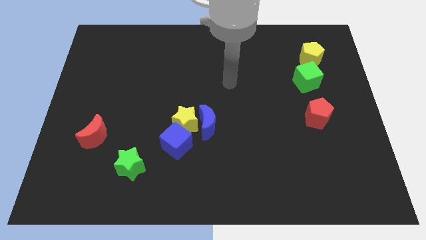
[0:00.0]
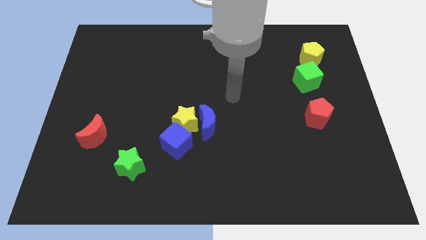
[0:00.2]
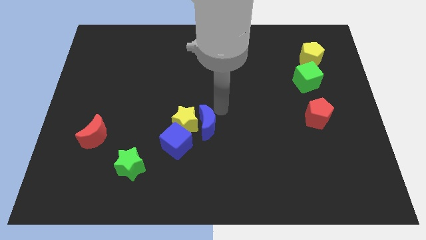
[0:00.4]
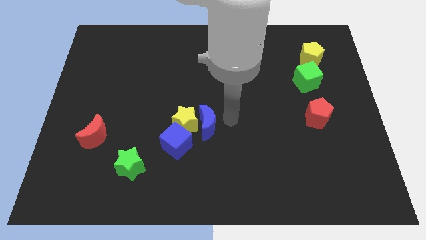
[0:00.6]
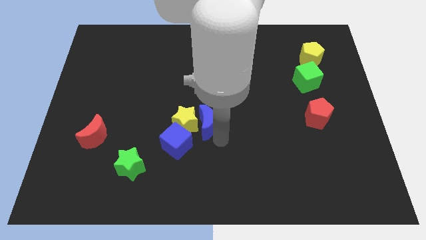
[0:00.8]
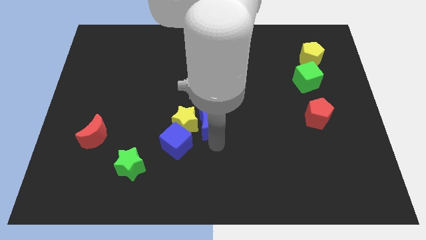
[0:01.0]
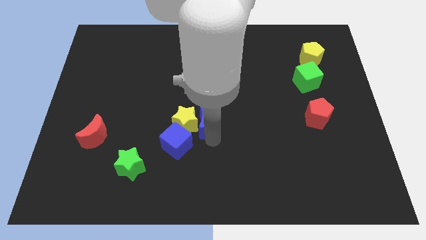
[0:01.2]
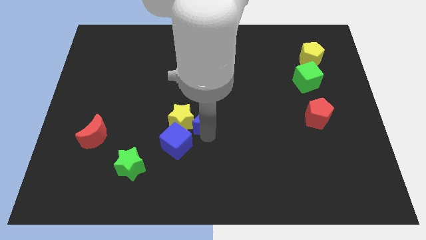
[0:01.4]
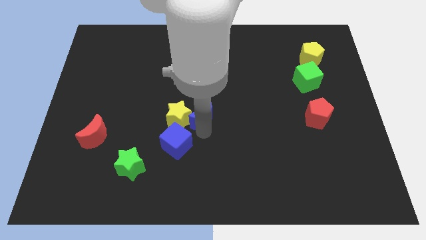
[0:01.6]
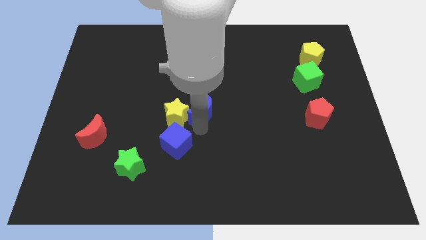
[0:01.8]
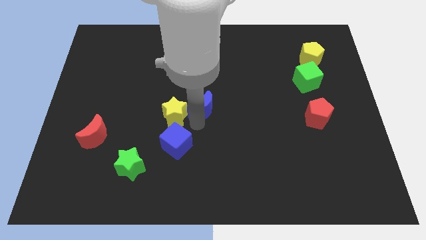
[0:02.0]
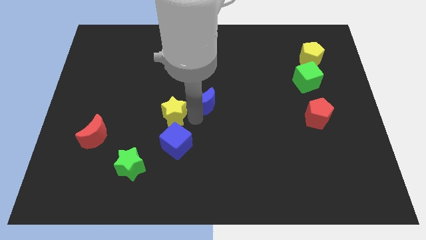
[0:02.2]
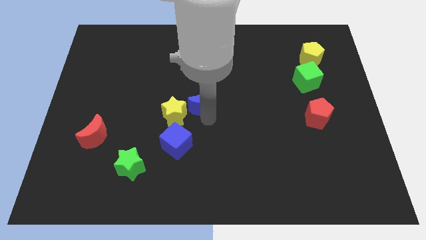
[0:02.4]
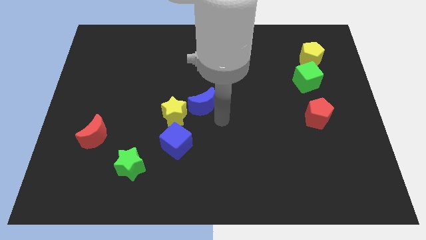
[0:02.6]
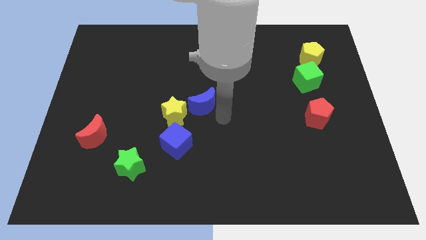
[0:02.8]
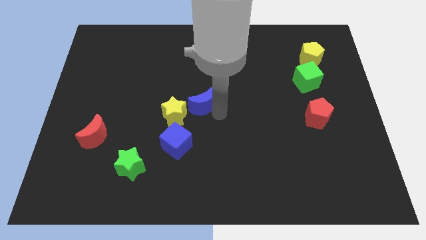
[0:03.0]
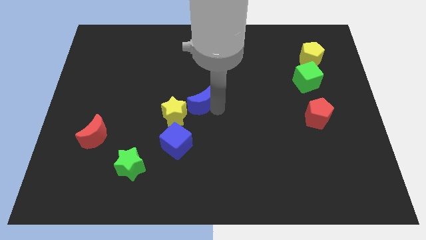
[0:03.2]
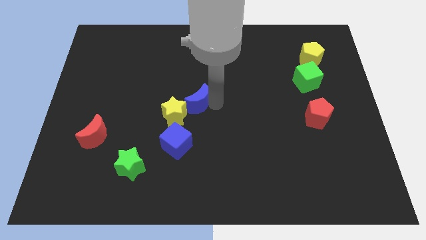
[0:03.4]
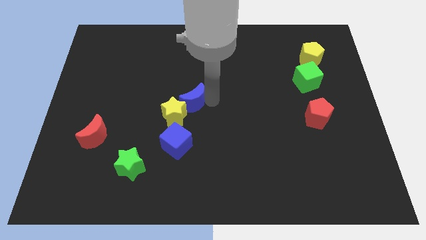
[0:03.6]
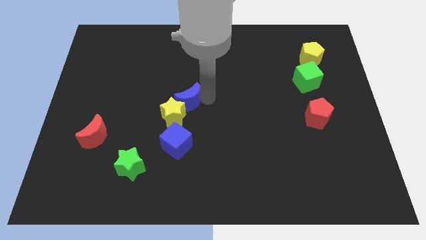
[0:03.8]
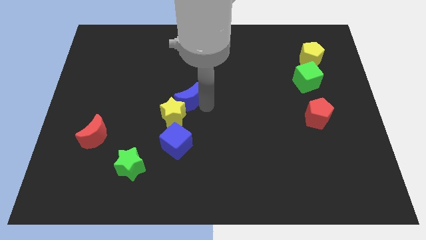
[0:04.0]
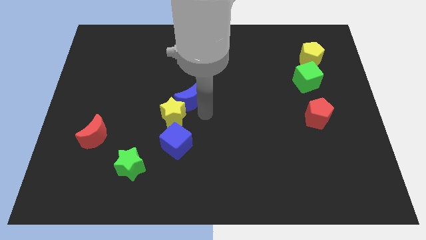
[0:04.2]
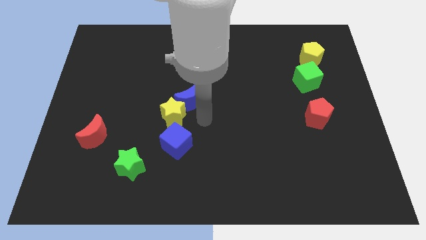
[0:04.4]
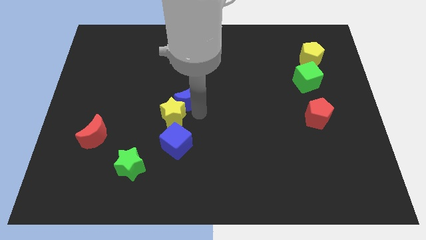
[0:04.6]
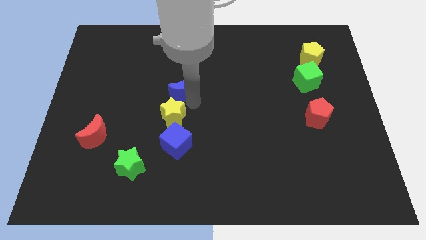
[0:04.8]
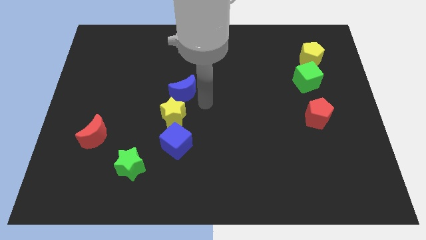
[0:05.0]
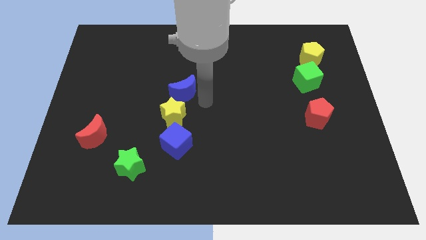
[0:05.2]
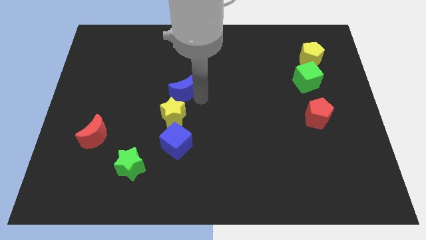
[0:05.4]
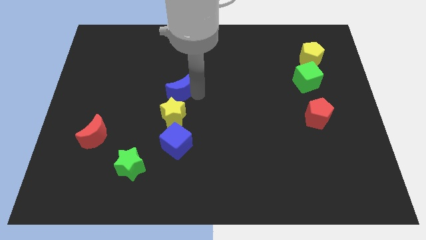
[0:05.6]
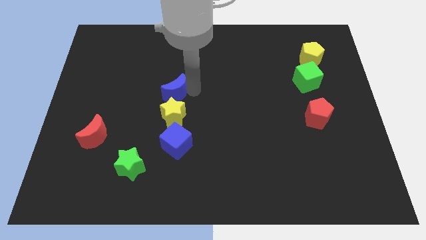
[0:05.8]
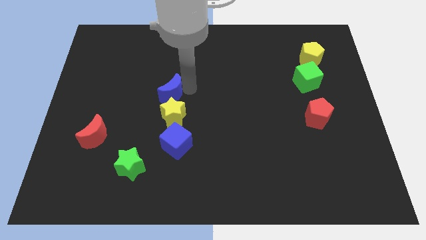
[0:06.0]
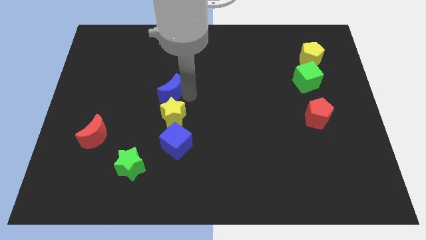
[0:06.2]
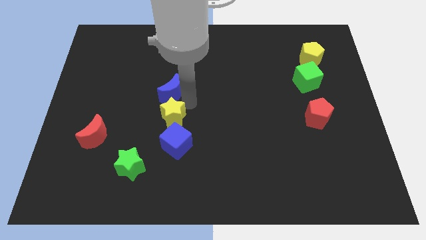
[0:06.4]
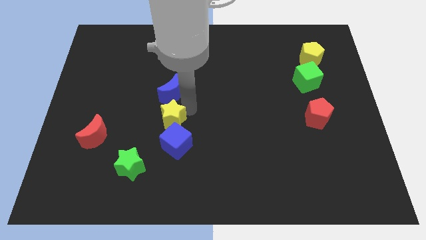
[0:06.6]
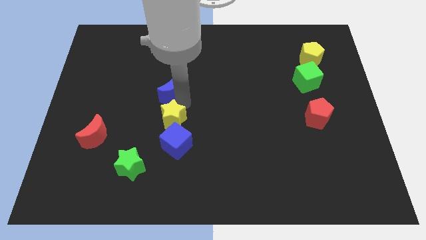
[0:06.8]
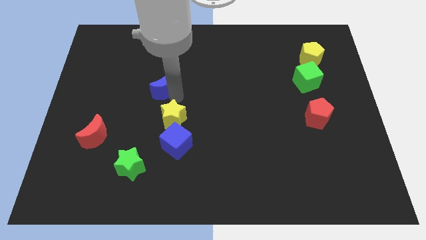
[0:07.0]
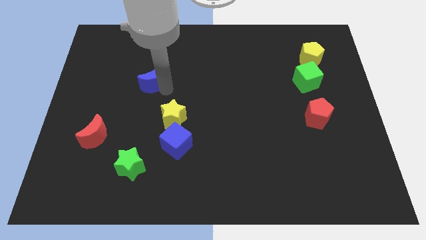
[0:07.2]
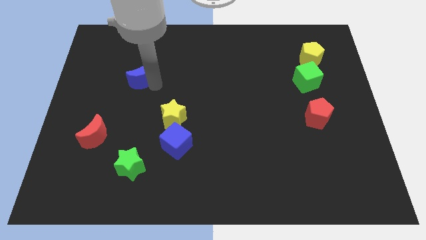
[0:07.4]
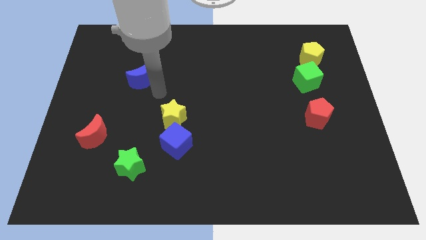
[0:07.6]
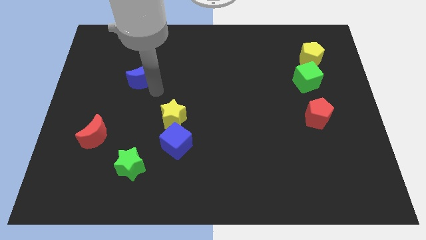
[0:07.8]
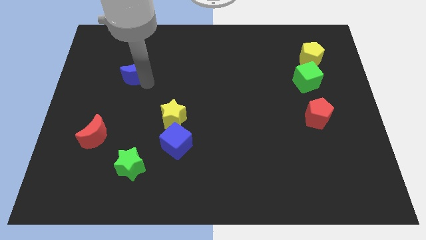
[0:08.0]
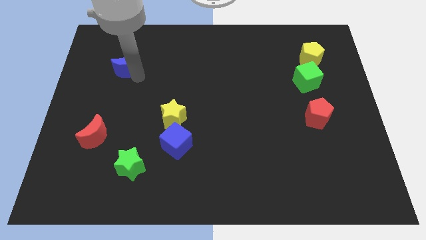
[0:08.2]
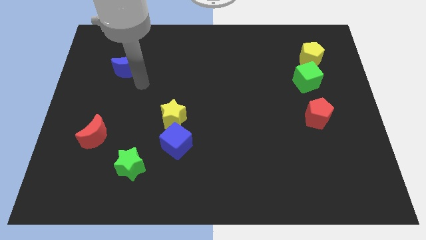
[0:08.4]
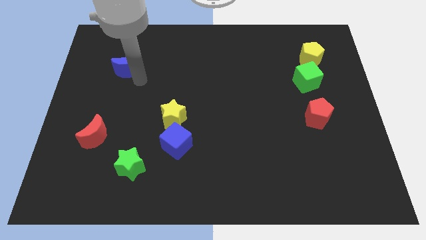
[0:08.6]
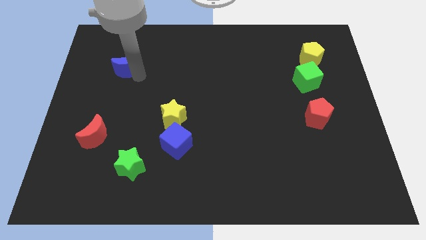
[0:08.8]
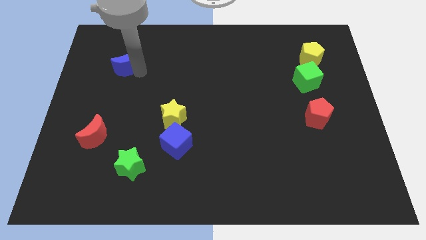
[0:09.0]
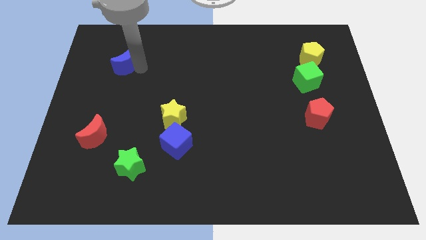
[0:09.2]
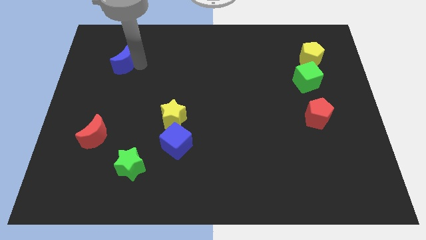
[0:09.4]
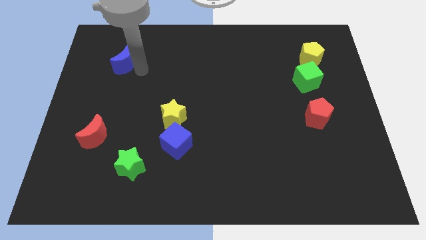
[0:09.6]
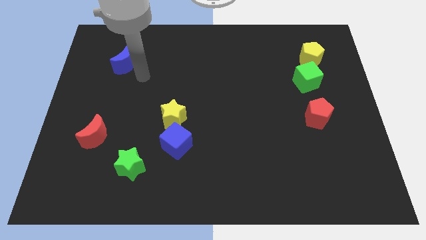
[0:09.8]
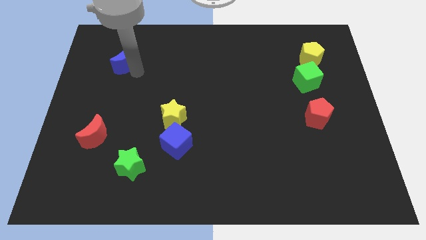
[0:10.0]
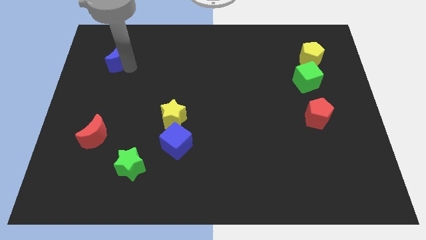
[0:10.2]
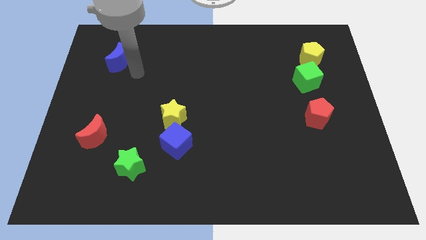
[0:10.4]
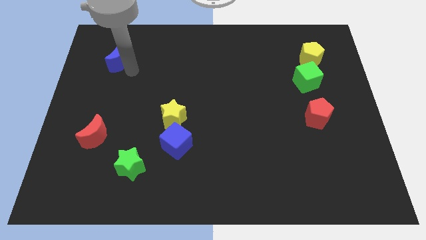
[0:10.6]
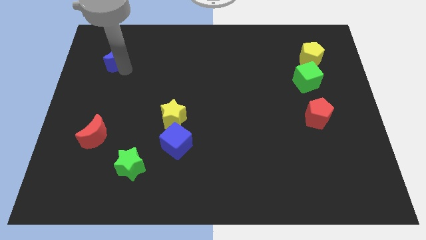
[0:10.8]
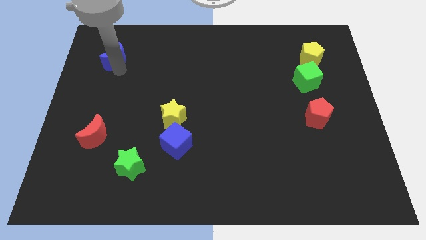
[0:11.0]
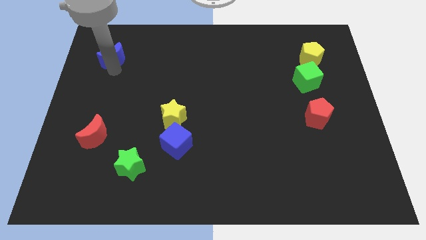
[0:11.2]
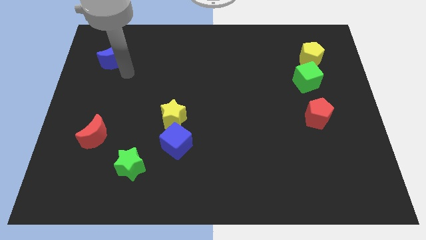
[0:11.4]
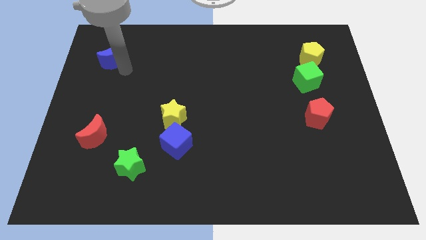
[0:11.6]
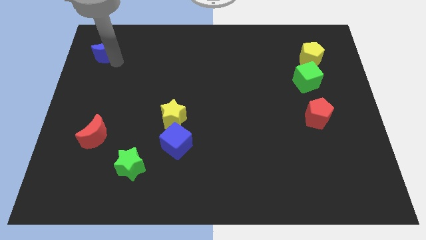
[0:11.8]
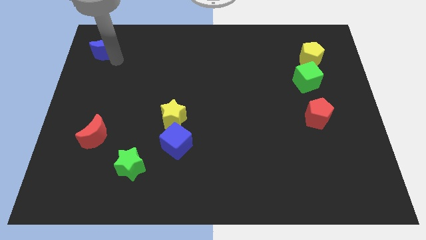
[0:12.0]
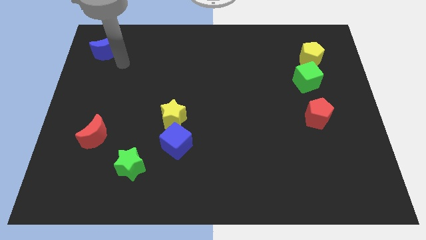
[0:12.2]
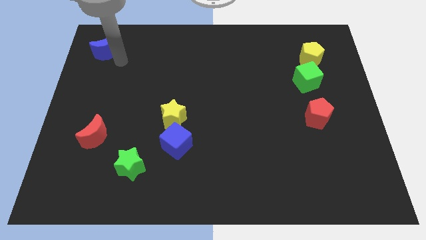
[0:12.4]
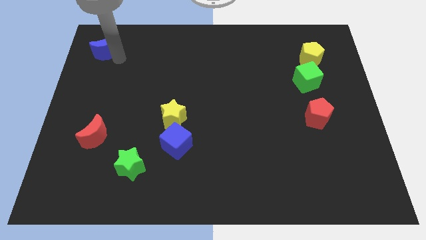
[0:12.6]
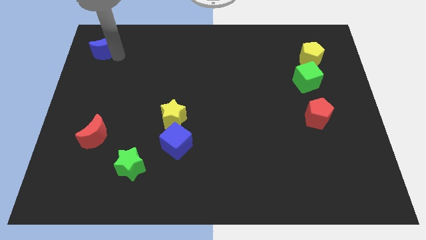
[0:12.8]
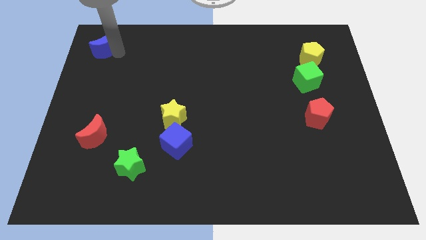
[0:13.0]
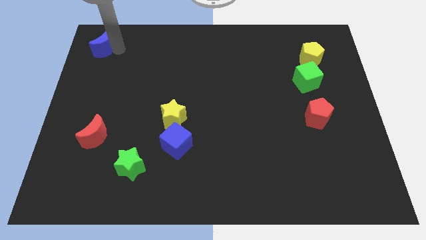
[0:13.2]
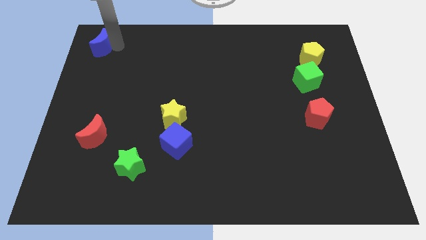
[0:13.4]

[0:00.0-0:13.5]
put the blue moon to the top left corner

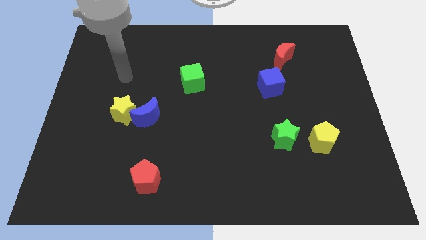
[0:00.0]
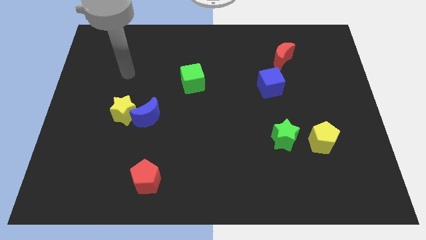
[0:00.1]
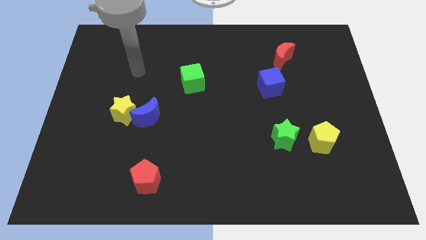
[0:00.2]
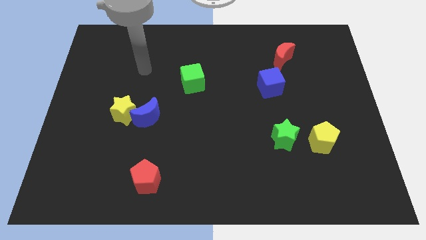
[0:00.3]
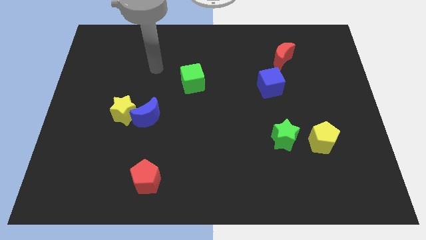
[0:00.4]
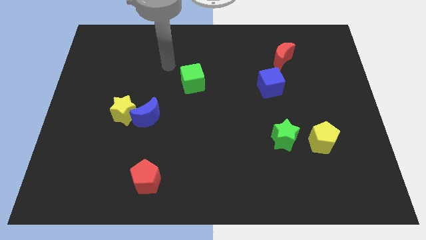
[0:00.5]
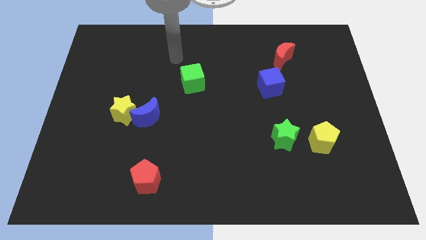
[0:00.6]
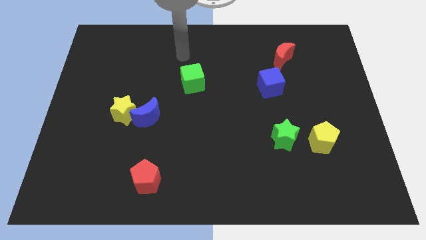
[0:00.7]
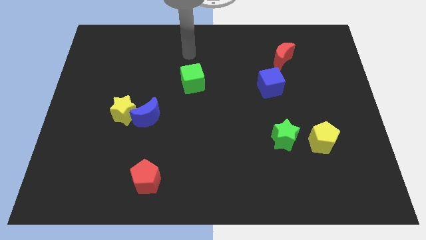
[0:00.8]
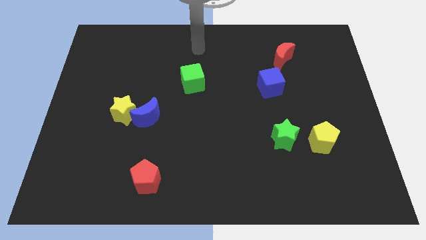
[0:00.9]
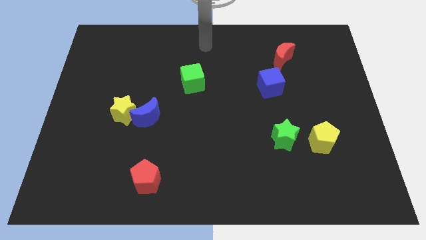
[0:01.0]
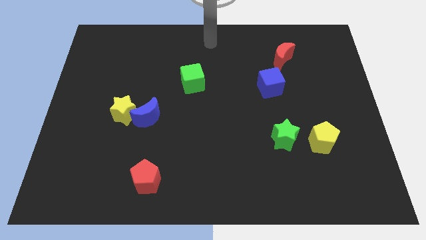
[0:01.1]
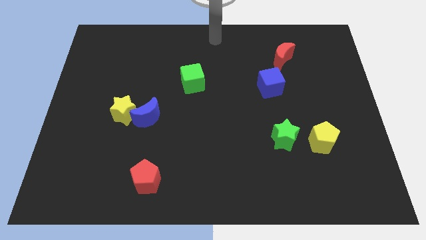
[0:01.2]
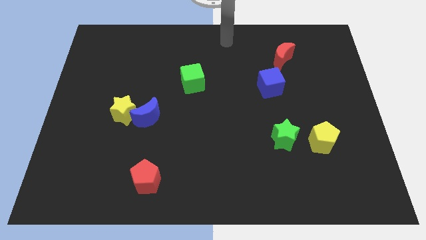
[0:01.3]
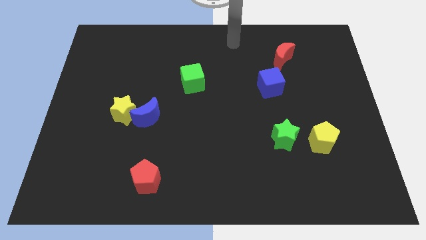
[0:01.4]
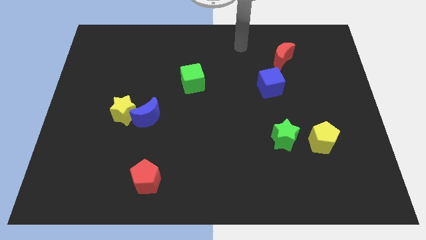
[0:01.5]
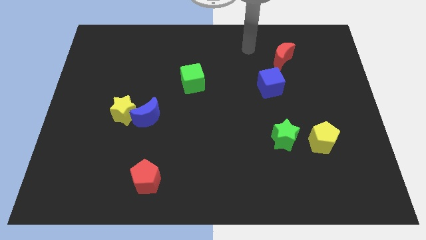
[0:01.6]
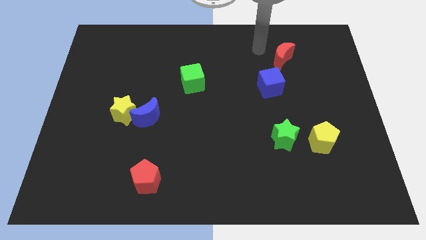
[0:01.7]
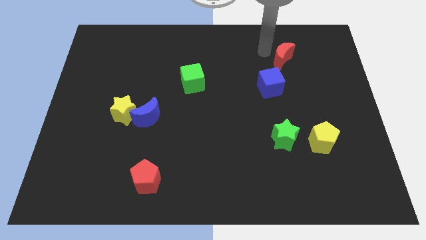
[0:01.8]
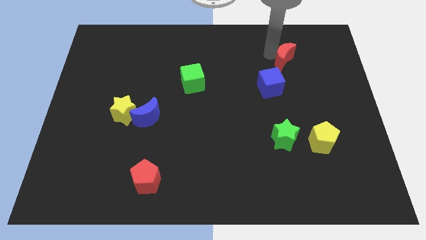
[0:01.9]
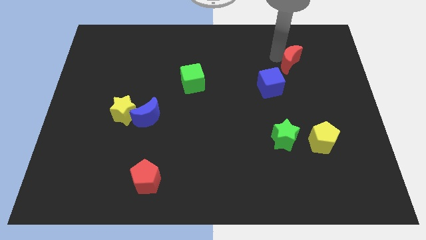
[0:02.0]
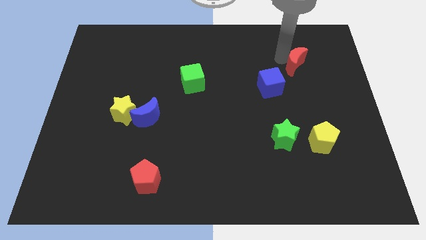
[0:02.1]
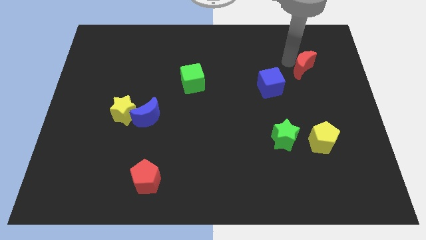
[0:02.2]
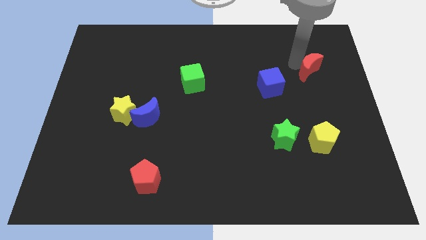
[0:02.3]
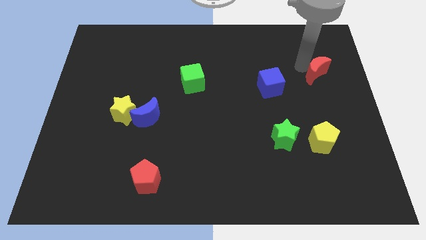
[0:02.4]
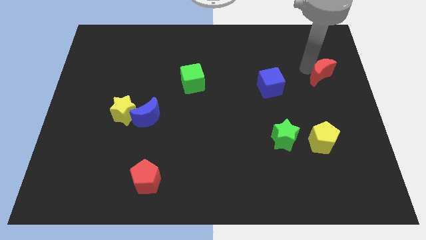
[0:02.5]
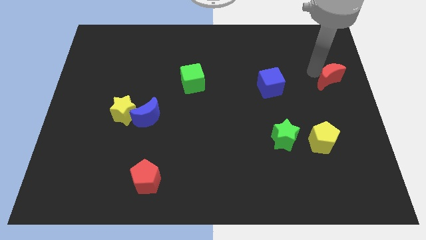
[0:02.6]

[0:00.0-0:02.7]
move the red moon to the center right
